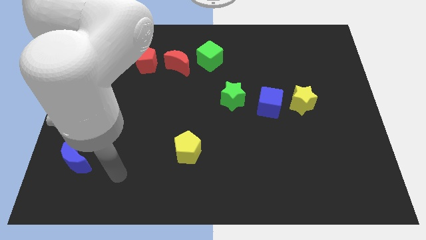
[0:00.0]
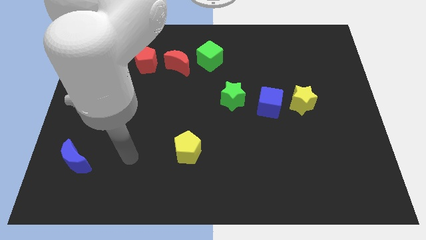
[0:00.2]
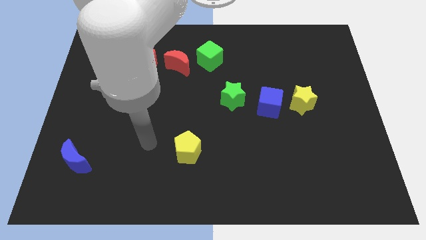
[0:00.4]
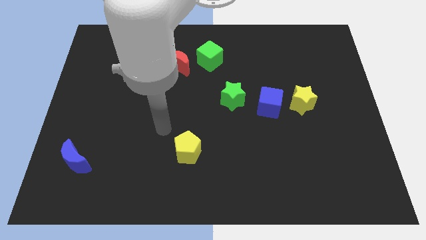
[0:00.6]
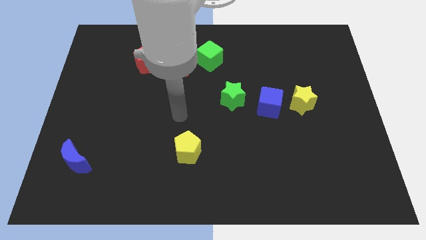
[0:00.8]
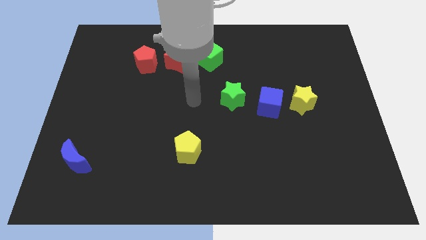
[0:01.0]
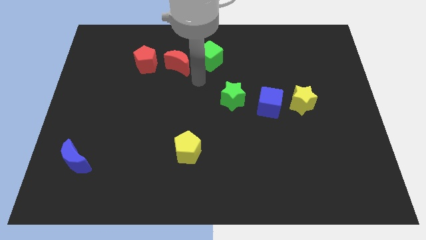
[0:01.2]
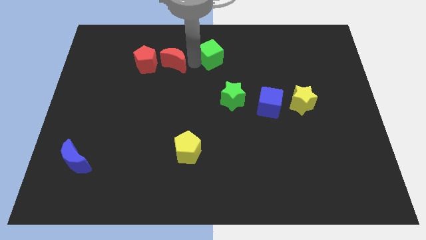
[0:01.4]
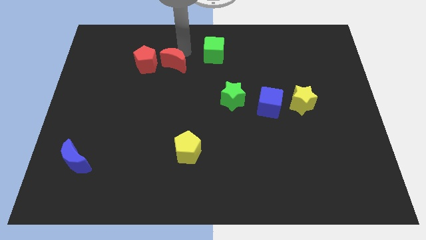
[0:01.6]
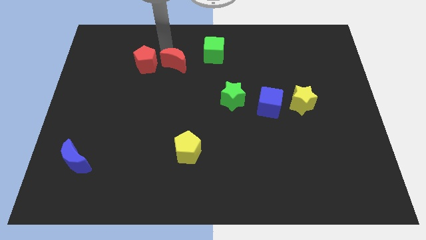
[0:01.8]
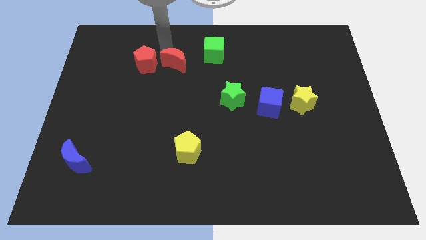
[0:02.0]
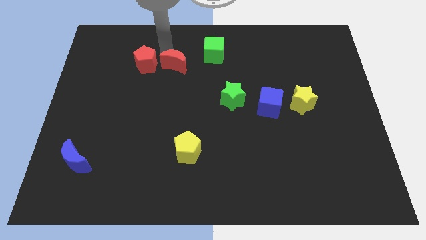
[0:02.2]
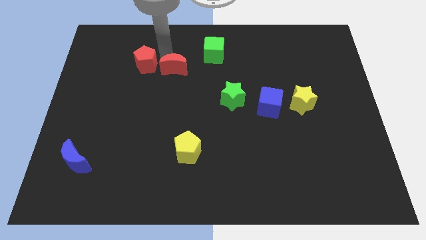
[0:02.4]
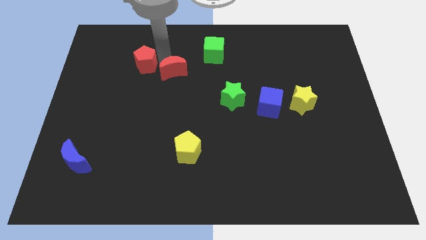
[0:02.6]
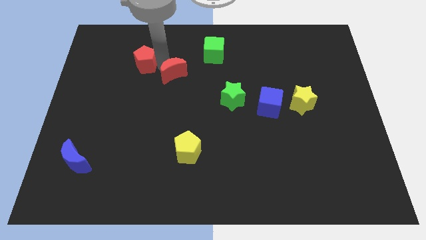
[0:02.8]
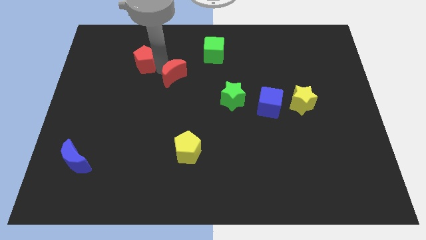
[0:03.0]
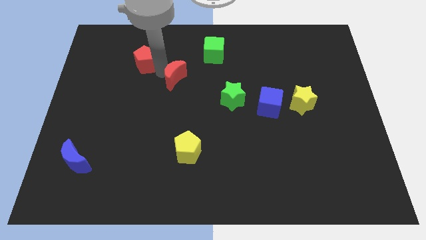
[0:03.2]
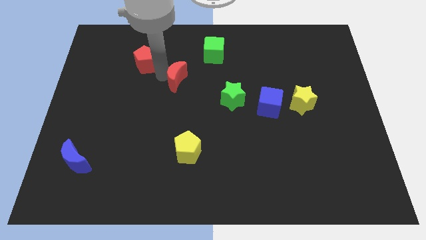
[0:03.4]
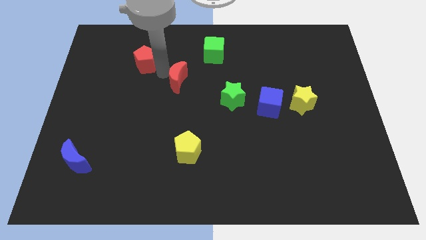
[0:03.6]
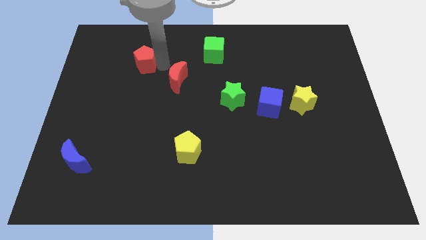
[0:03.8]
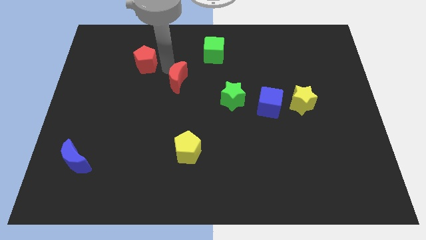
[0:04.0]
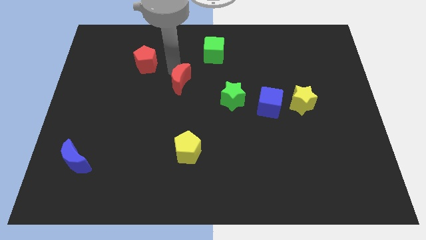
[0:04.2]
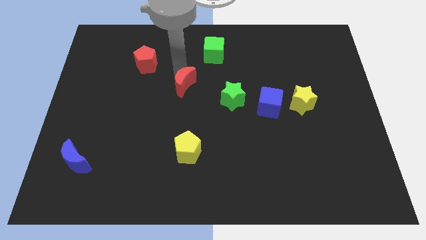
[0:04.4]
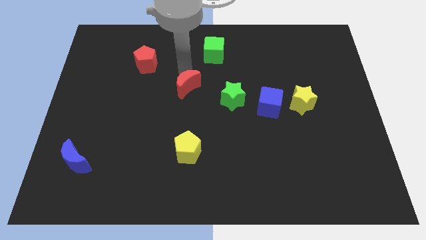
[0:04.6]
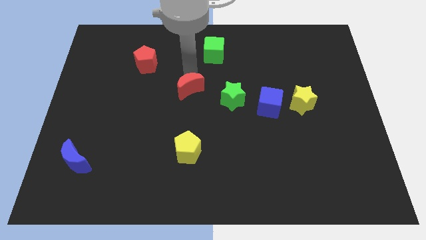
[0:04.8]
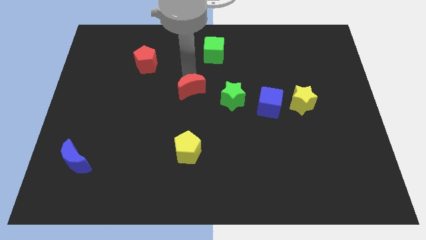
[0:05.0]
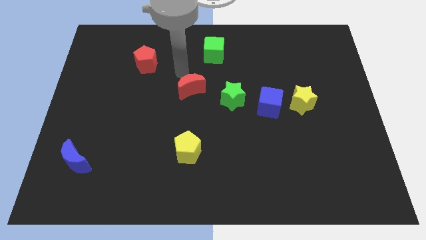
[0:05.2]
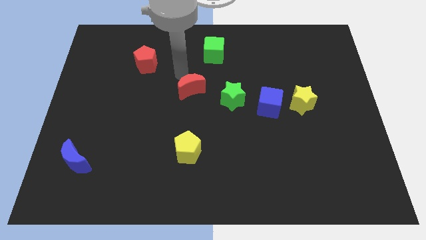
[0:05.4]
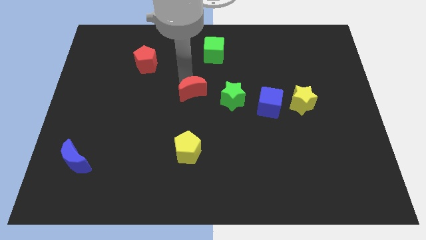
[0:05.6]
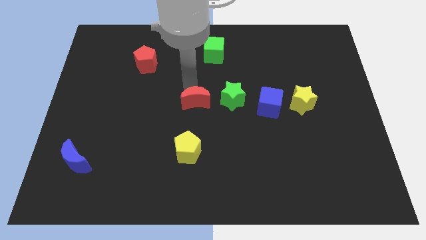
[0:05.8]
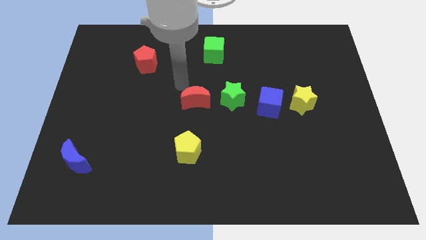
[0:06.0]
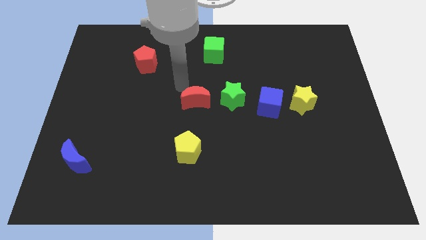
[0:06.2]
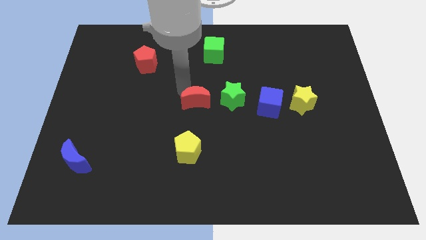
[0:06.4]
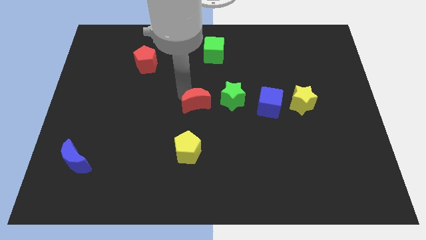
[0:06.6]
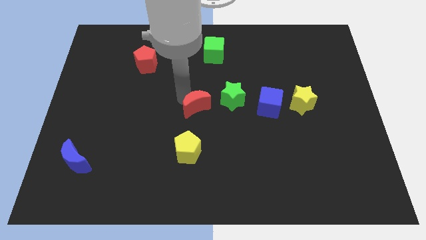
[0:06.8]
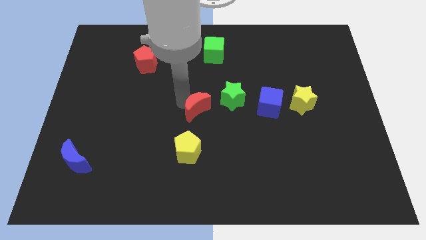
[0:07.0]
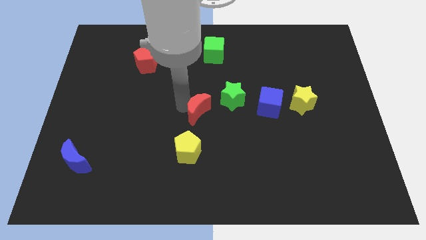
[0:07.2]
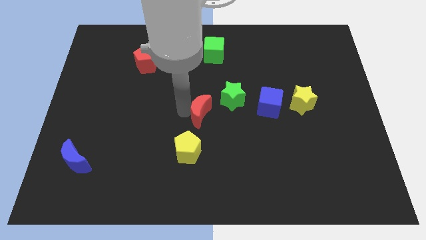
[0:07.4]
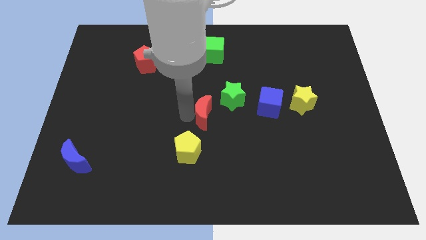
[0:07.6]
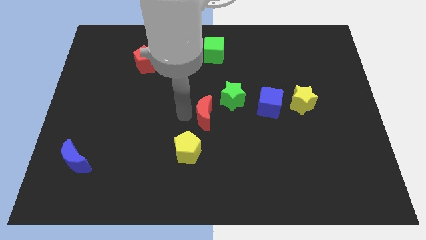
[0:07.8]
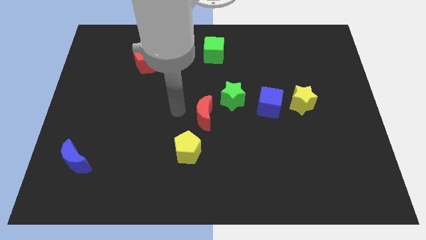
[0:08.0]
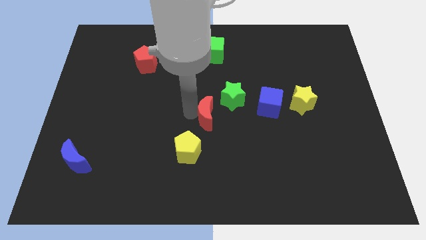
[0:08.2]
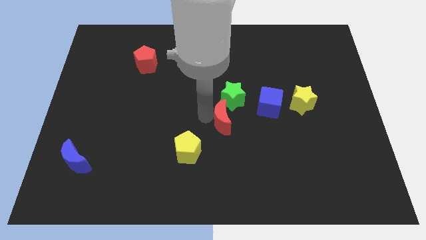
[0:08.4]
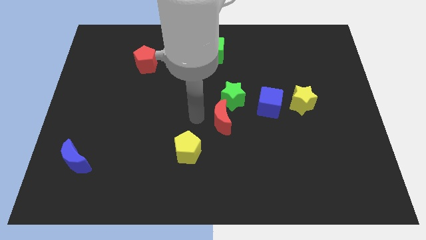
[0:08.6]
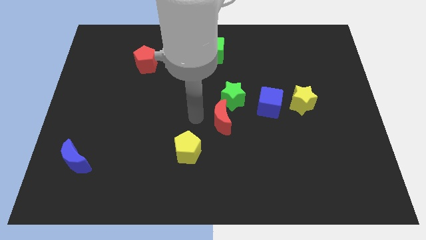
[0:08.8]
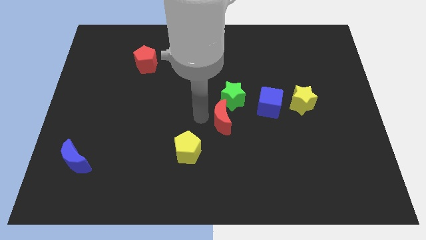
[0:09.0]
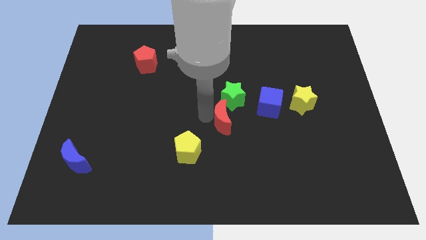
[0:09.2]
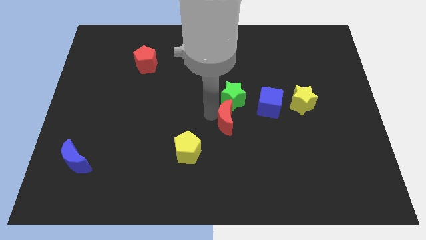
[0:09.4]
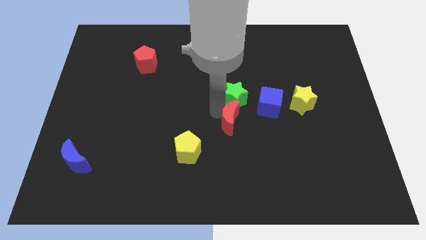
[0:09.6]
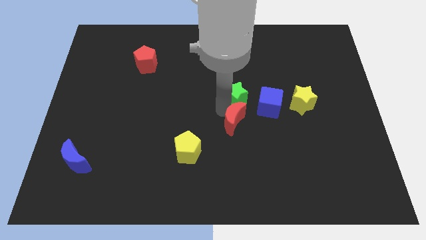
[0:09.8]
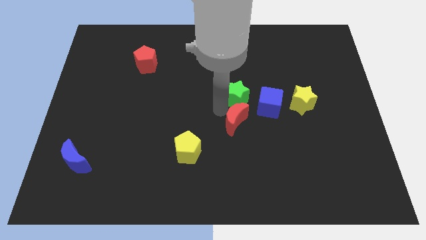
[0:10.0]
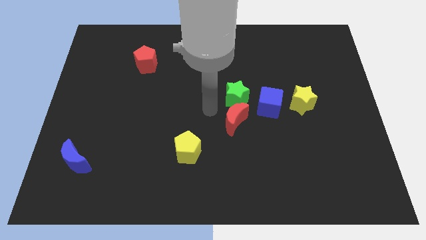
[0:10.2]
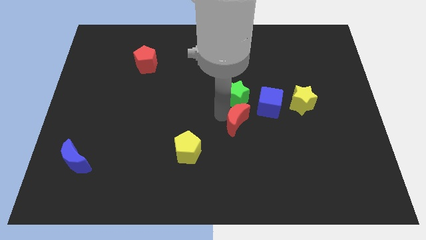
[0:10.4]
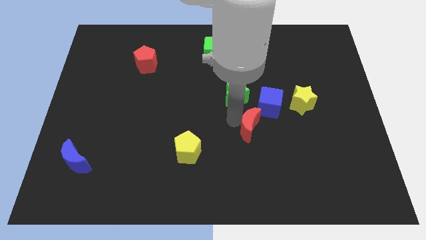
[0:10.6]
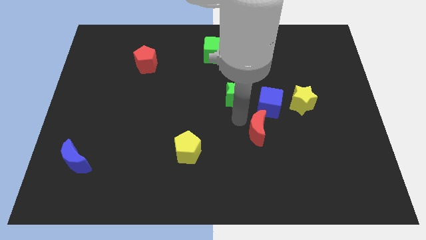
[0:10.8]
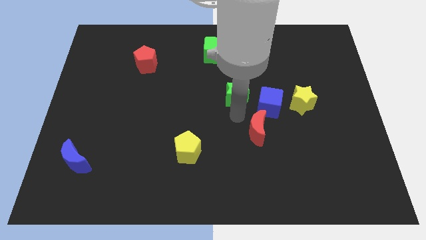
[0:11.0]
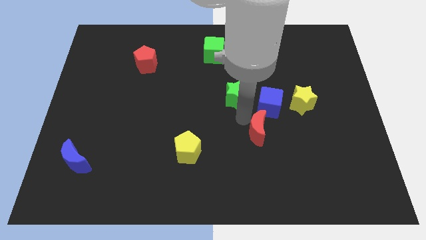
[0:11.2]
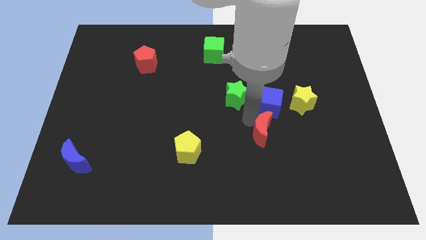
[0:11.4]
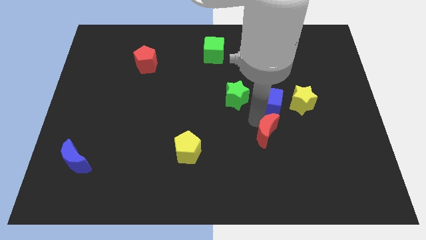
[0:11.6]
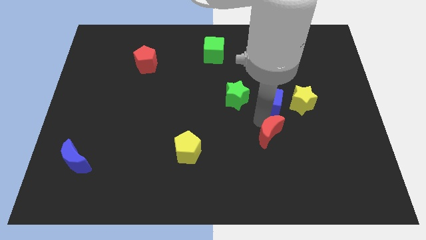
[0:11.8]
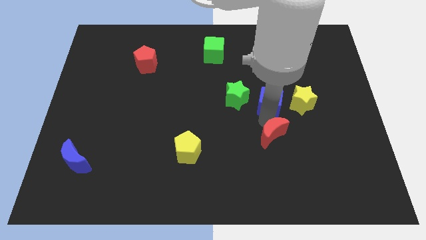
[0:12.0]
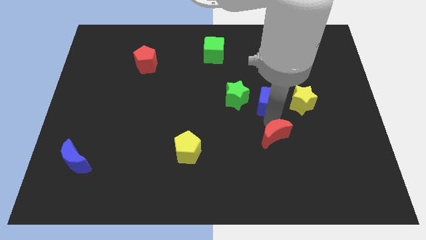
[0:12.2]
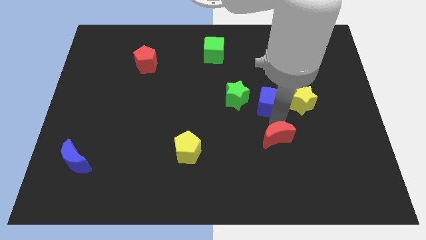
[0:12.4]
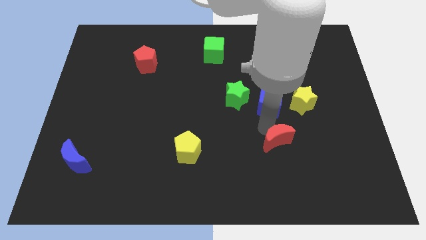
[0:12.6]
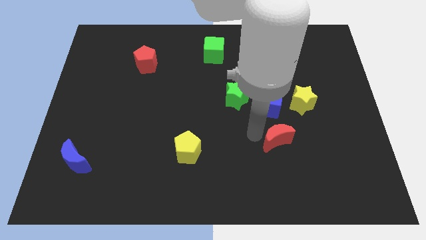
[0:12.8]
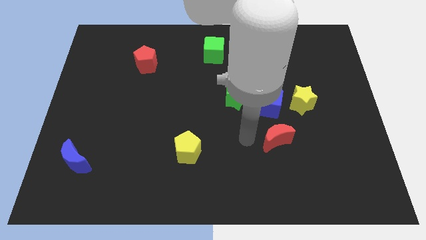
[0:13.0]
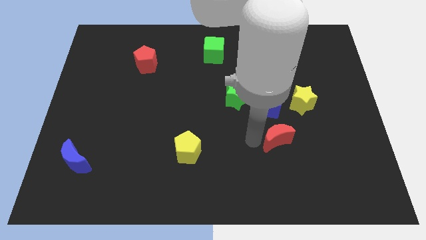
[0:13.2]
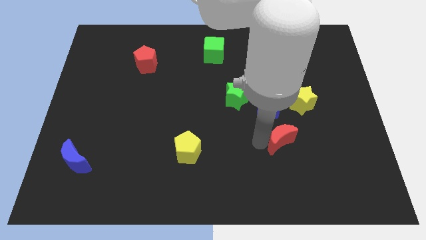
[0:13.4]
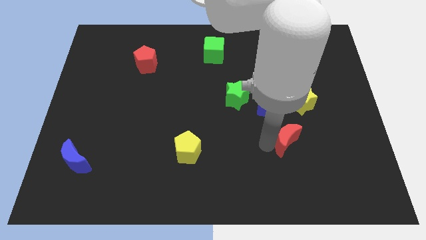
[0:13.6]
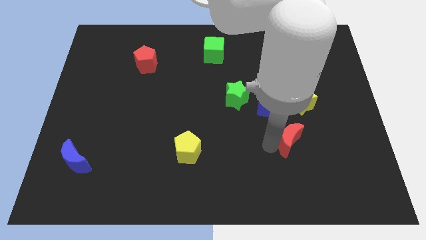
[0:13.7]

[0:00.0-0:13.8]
slide the red moon below the yellow star
